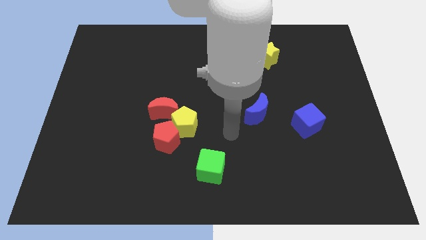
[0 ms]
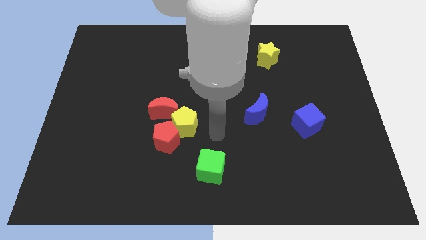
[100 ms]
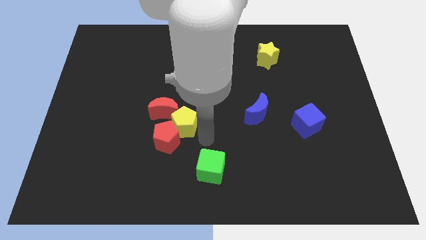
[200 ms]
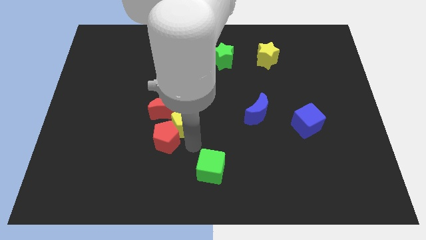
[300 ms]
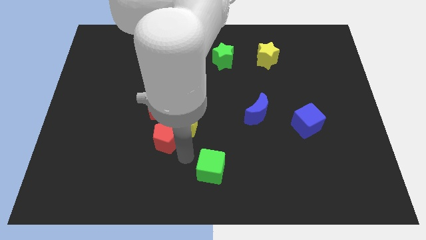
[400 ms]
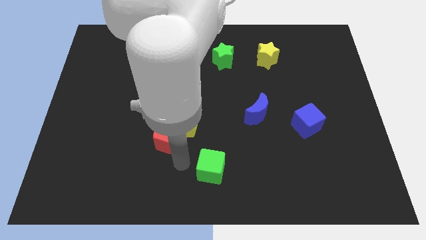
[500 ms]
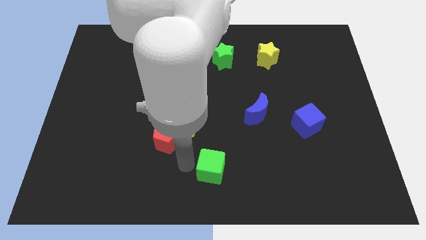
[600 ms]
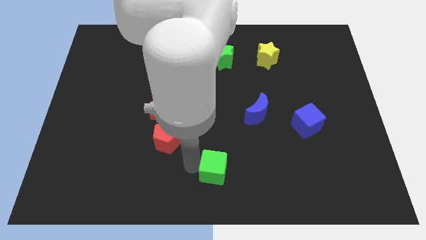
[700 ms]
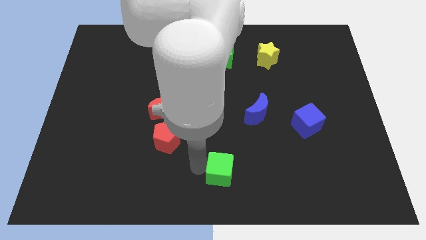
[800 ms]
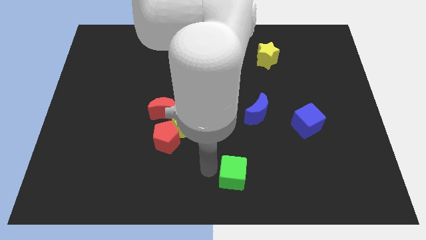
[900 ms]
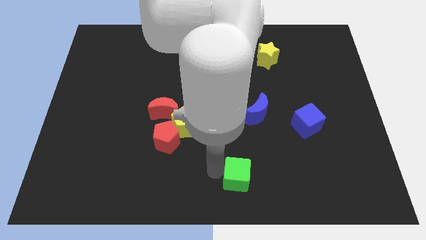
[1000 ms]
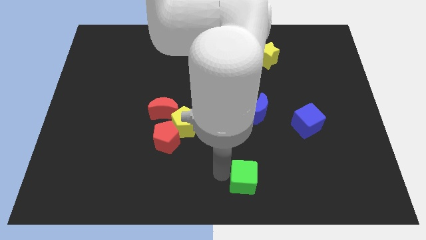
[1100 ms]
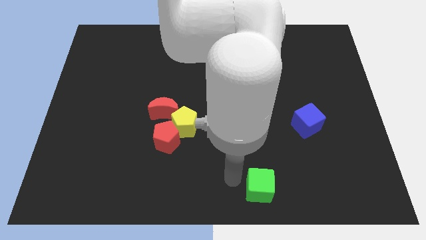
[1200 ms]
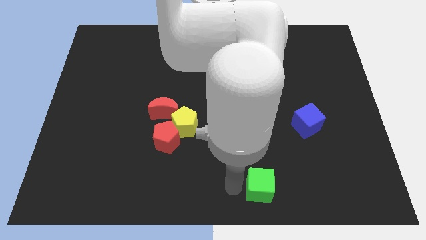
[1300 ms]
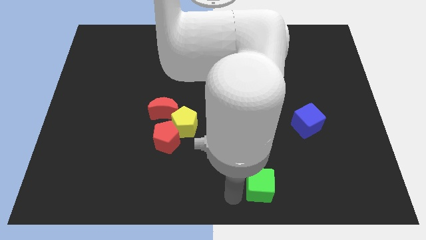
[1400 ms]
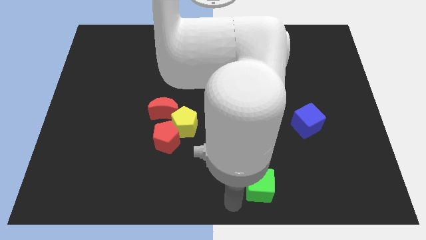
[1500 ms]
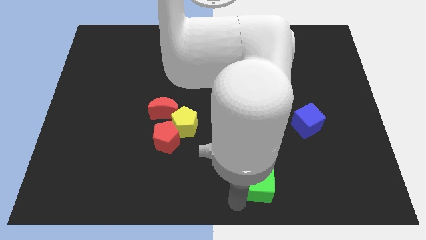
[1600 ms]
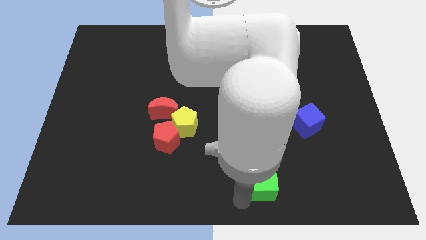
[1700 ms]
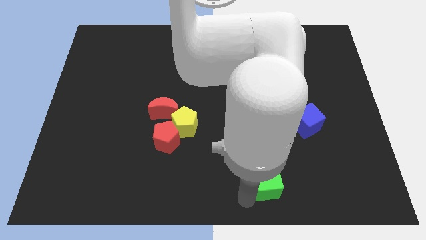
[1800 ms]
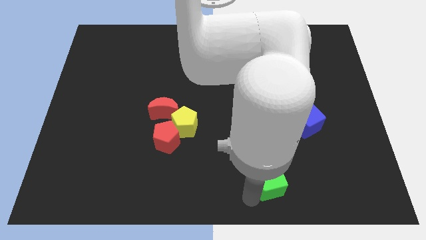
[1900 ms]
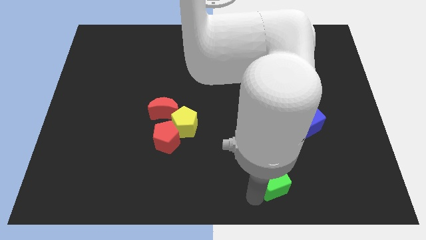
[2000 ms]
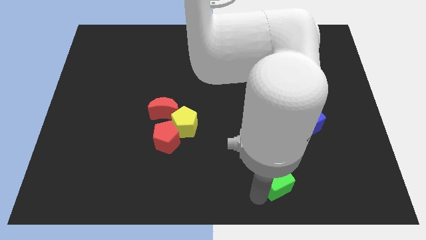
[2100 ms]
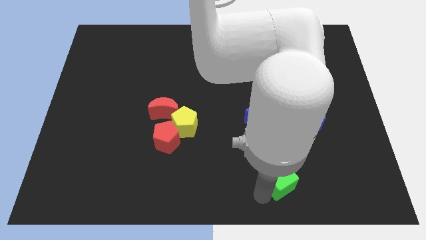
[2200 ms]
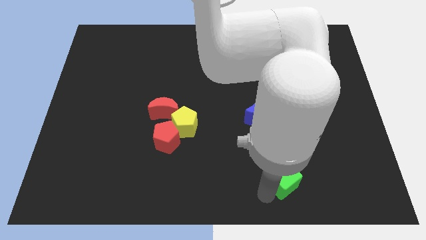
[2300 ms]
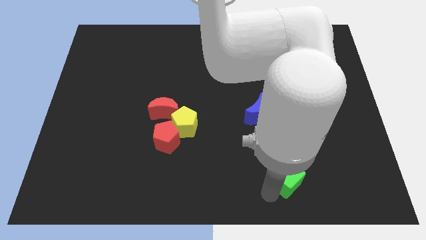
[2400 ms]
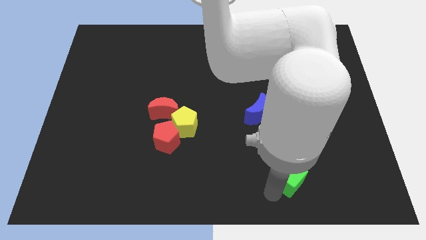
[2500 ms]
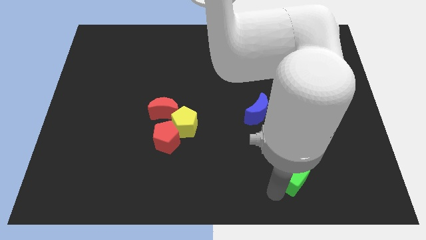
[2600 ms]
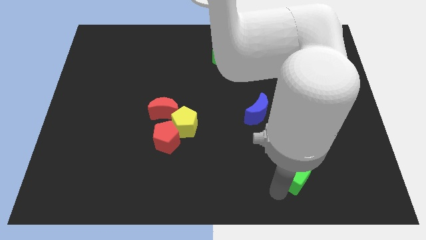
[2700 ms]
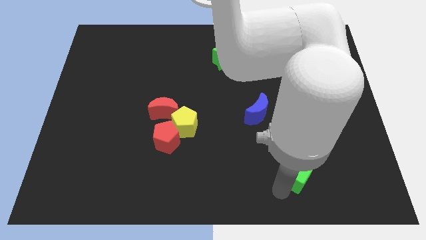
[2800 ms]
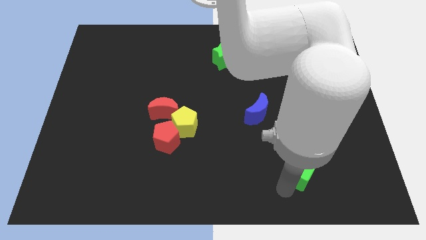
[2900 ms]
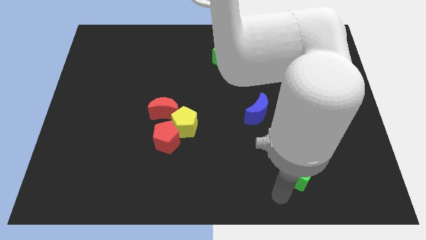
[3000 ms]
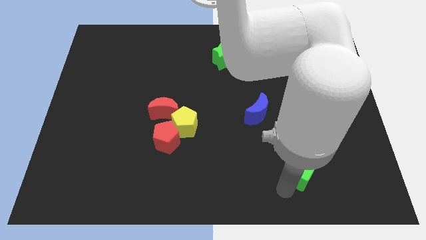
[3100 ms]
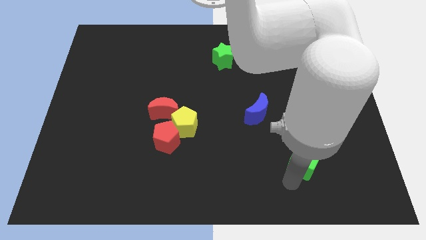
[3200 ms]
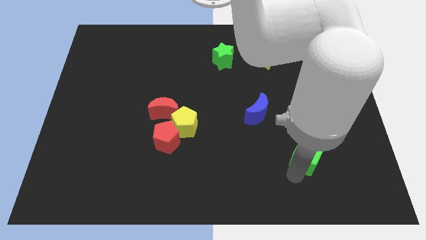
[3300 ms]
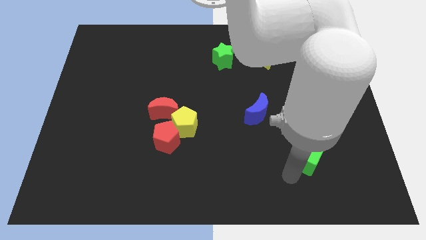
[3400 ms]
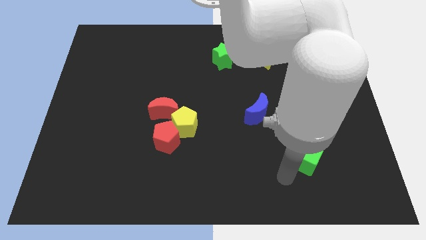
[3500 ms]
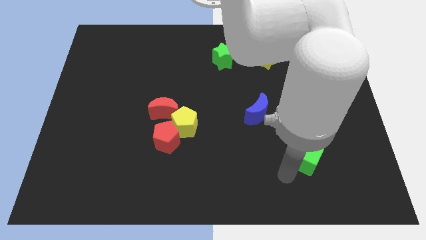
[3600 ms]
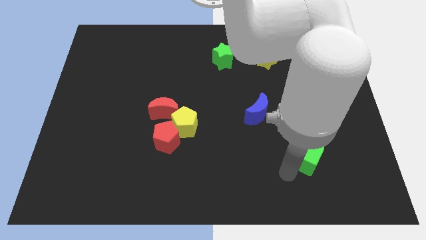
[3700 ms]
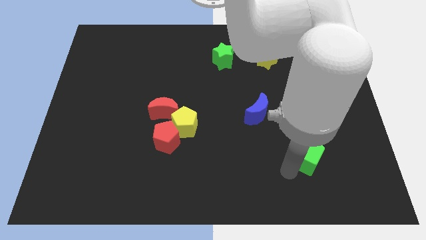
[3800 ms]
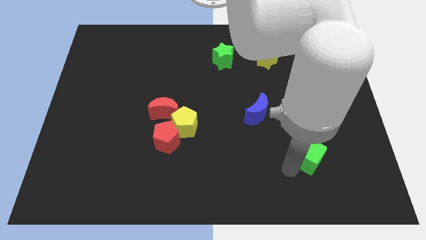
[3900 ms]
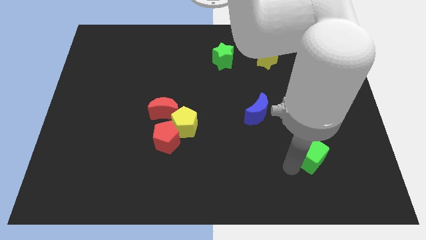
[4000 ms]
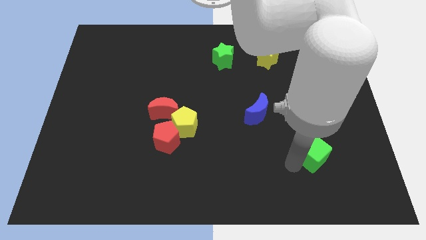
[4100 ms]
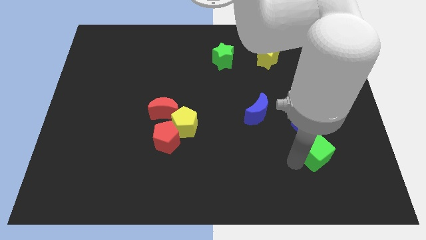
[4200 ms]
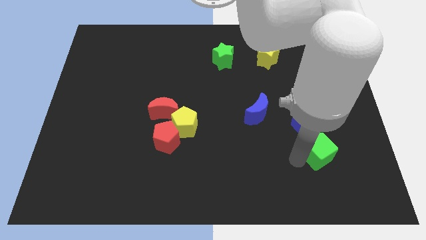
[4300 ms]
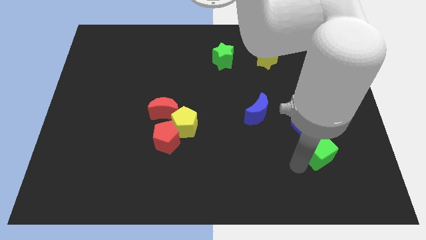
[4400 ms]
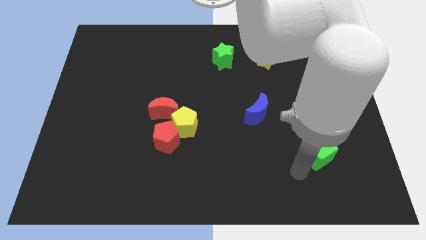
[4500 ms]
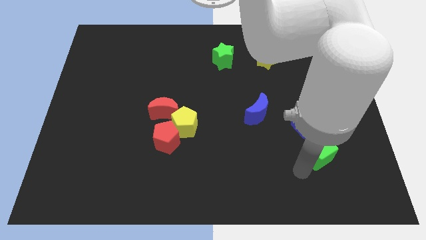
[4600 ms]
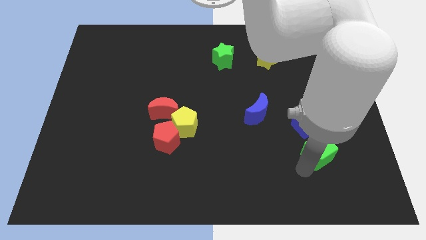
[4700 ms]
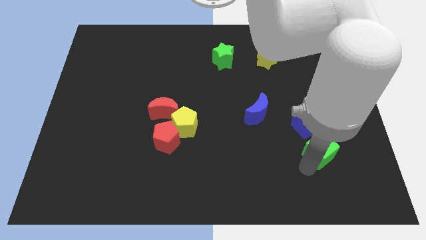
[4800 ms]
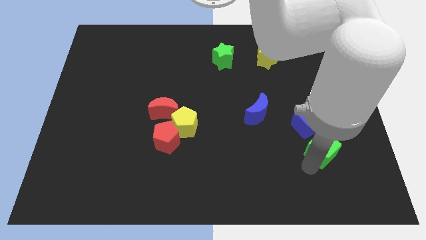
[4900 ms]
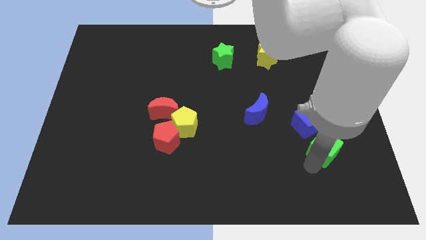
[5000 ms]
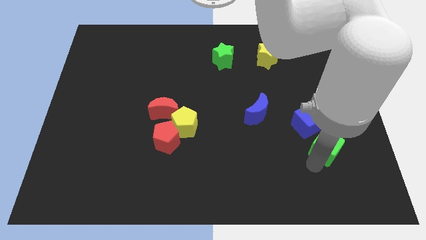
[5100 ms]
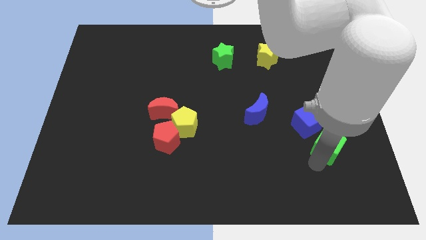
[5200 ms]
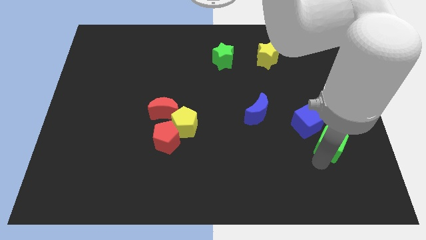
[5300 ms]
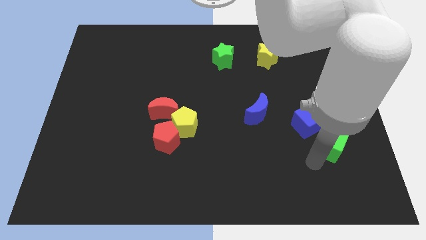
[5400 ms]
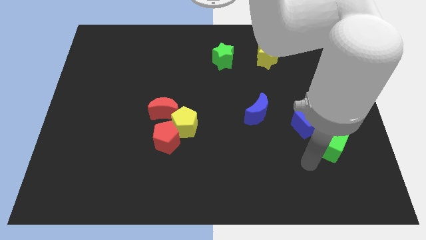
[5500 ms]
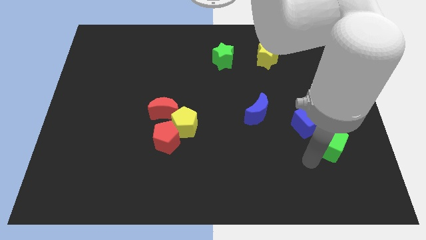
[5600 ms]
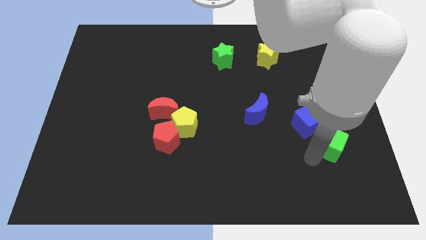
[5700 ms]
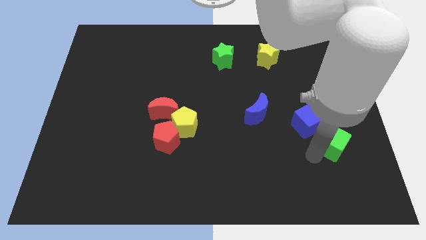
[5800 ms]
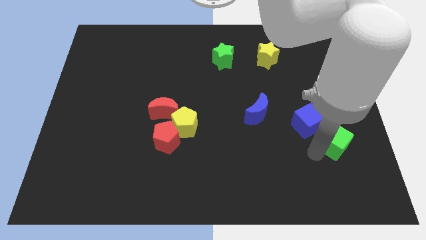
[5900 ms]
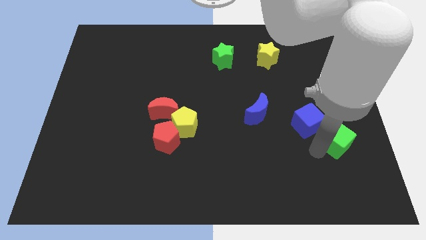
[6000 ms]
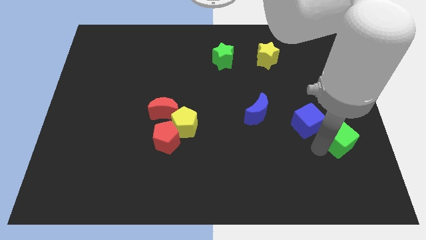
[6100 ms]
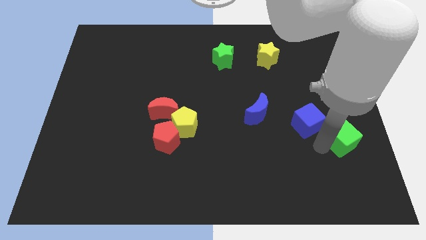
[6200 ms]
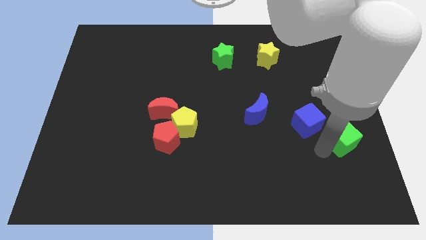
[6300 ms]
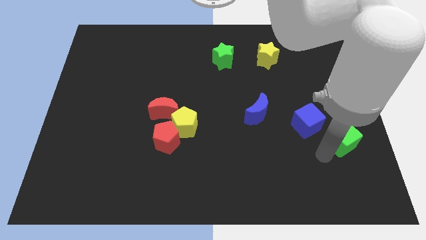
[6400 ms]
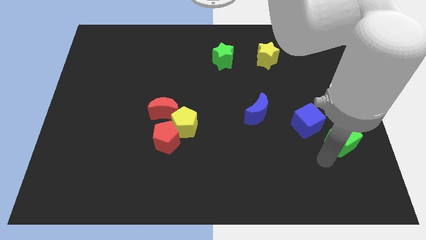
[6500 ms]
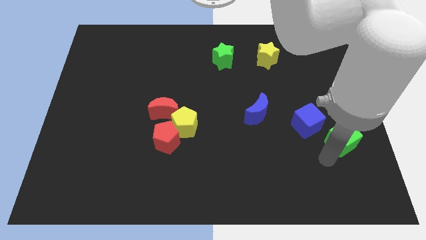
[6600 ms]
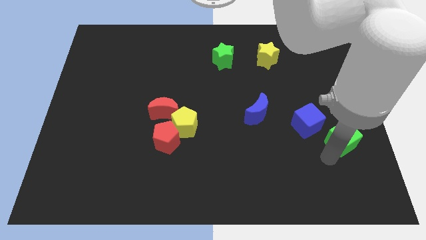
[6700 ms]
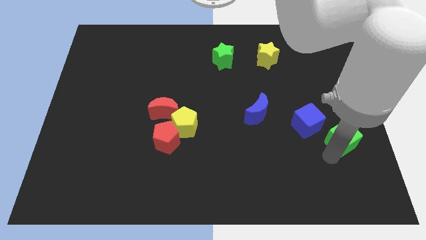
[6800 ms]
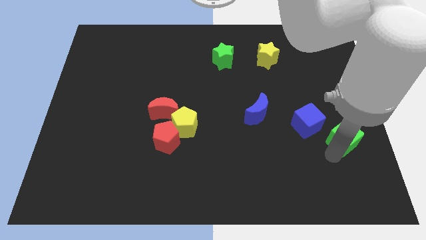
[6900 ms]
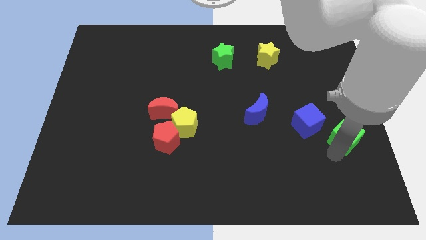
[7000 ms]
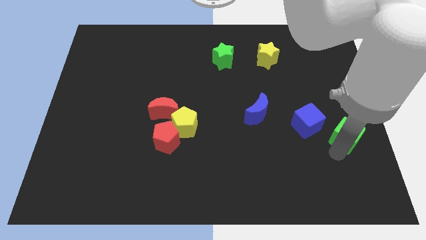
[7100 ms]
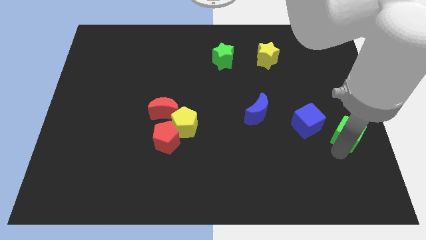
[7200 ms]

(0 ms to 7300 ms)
slide the green cube to the right side of the board
